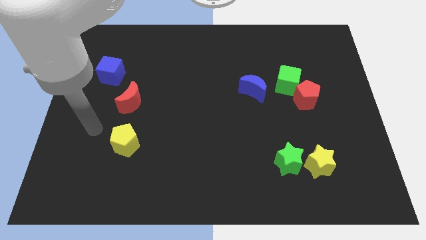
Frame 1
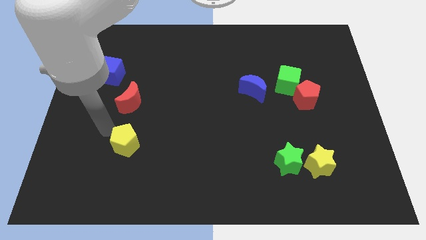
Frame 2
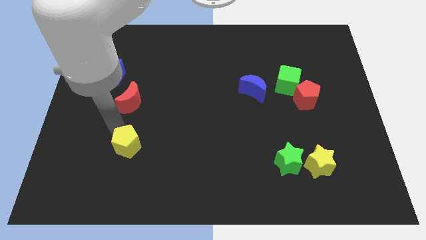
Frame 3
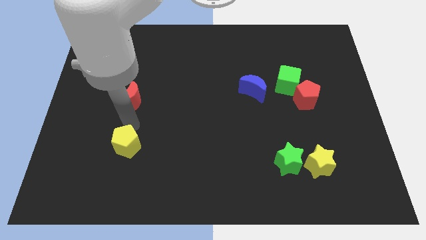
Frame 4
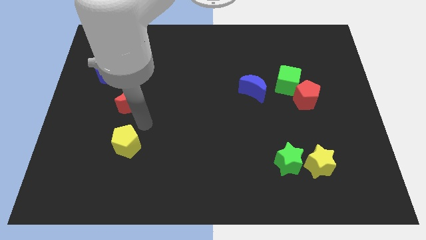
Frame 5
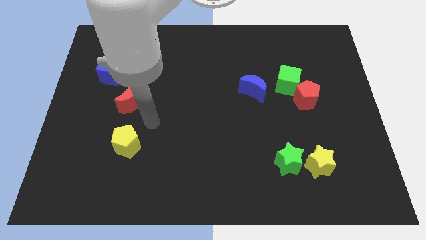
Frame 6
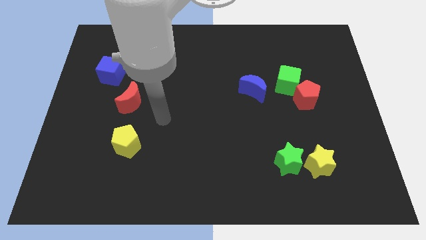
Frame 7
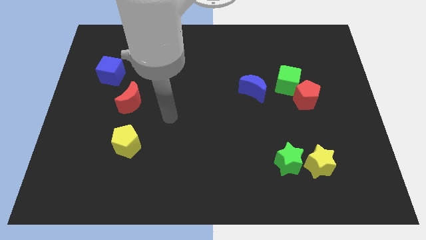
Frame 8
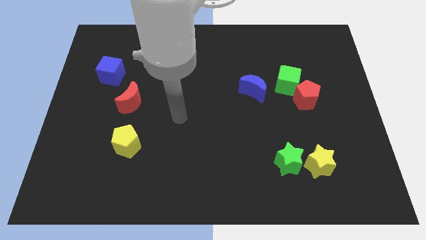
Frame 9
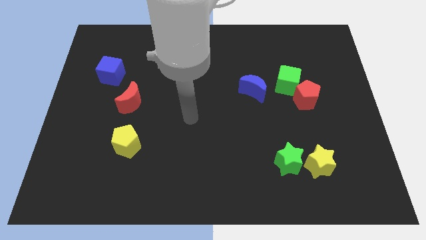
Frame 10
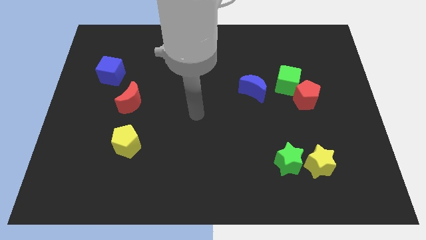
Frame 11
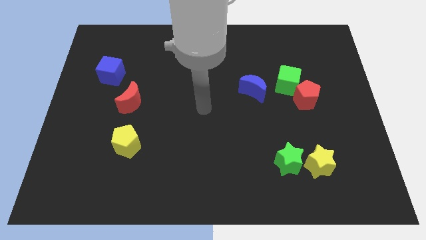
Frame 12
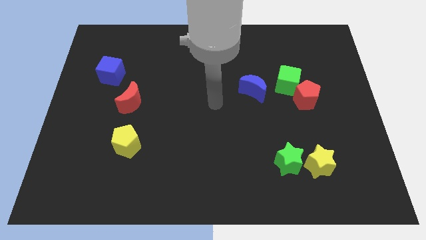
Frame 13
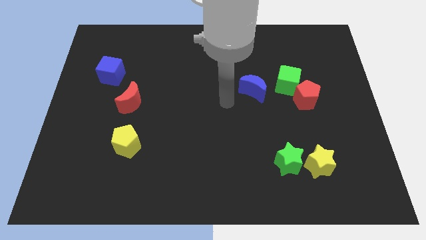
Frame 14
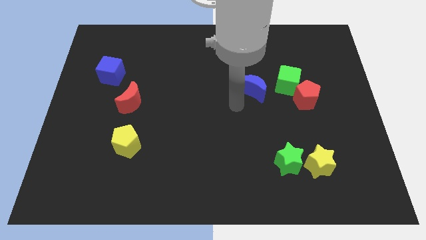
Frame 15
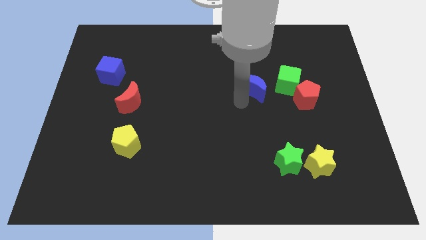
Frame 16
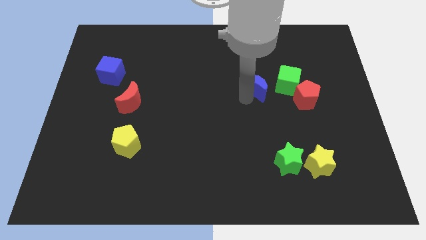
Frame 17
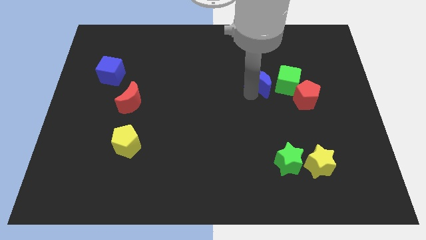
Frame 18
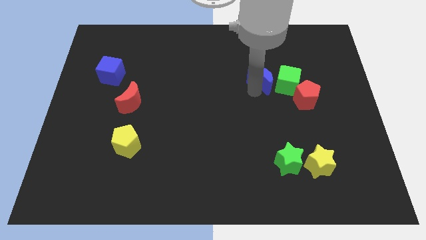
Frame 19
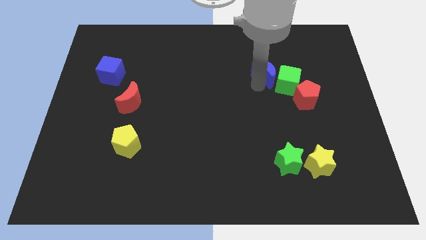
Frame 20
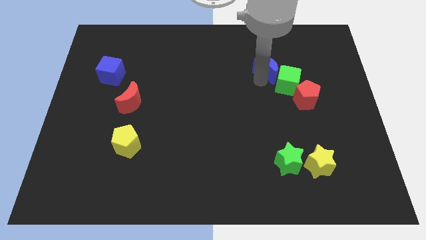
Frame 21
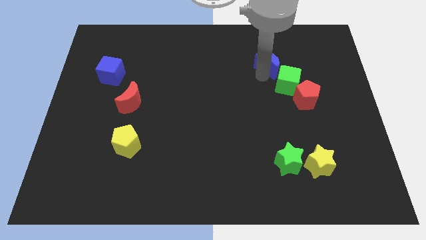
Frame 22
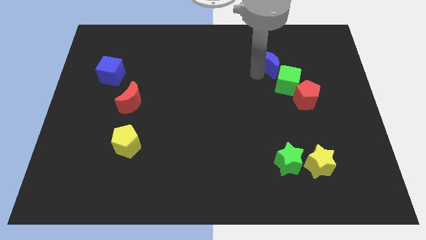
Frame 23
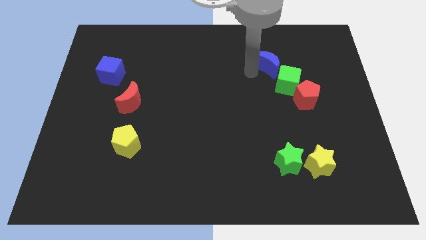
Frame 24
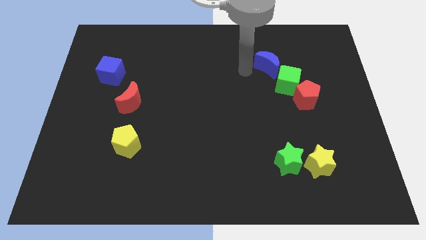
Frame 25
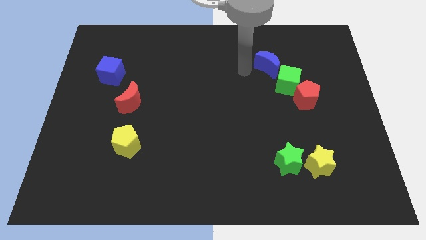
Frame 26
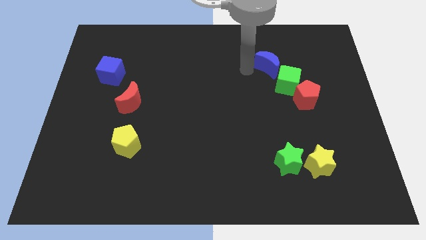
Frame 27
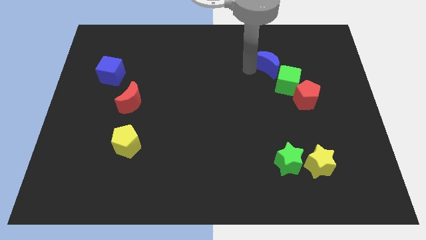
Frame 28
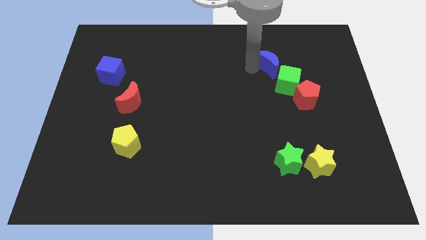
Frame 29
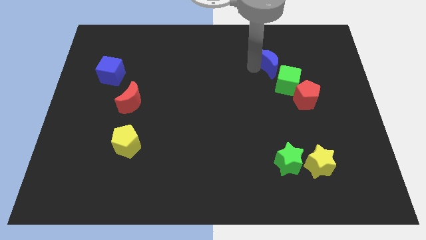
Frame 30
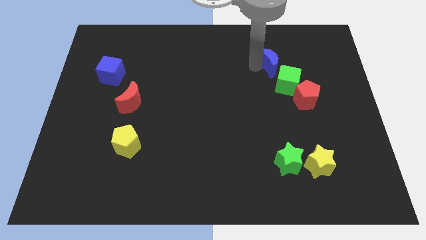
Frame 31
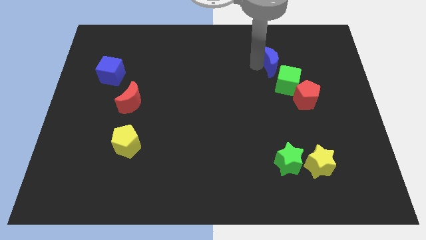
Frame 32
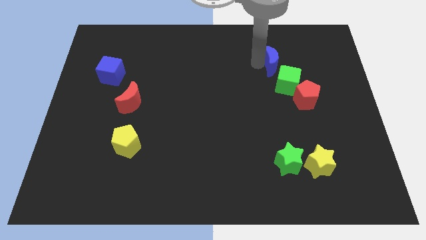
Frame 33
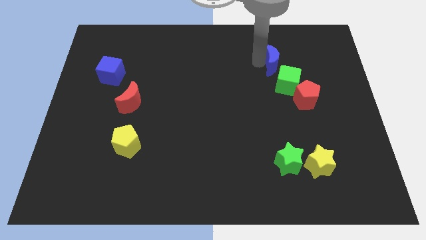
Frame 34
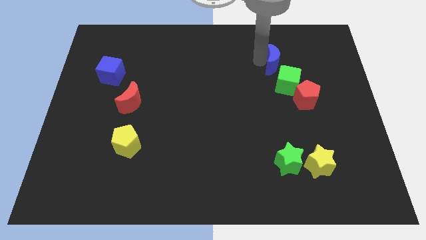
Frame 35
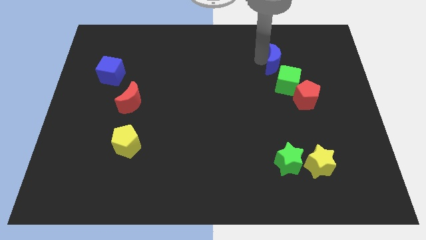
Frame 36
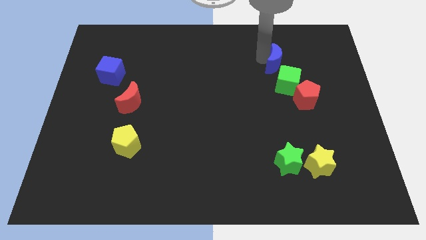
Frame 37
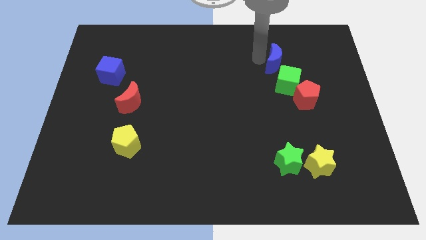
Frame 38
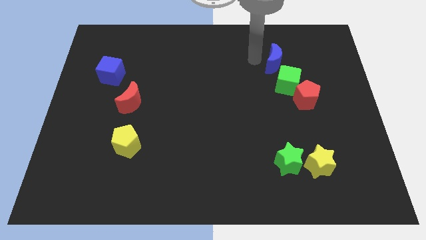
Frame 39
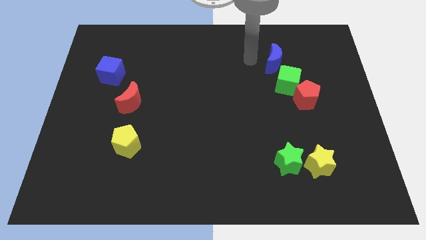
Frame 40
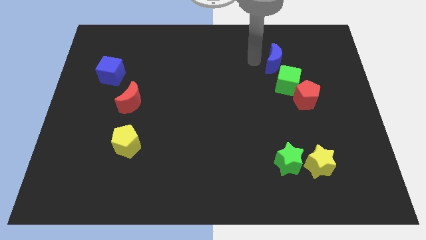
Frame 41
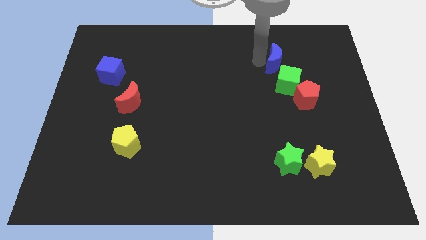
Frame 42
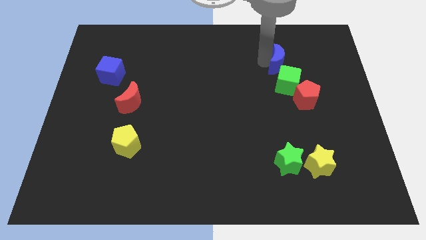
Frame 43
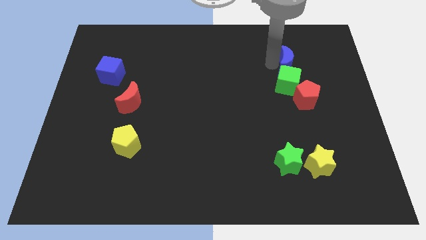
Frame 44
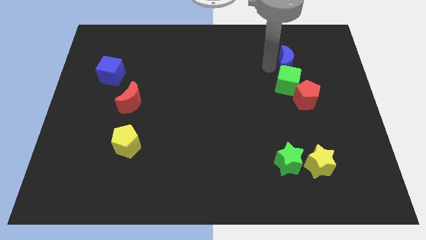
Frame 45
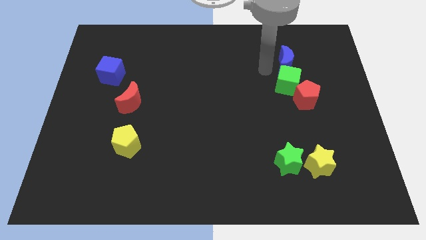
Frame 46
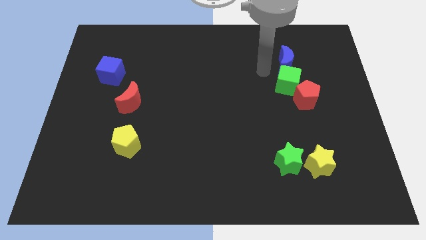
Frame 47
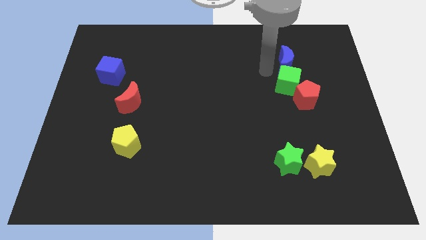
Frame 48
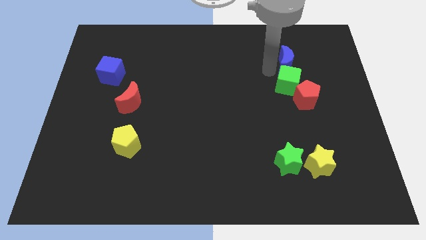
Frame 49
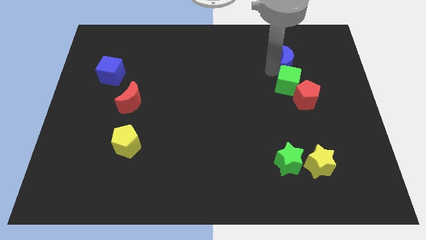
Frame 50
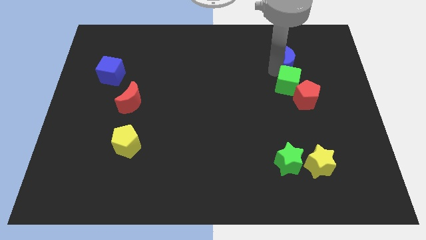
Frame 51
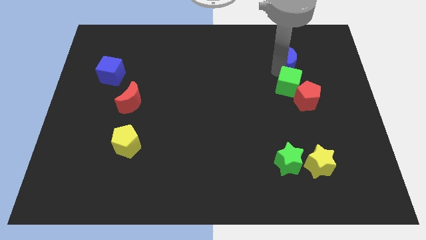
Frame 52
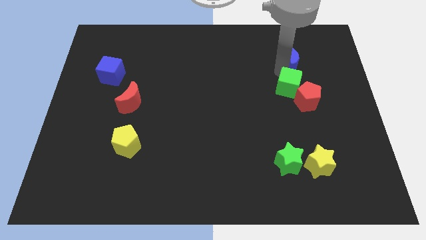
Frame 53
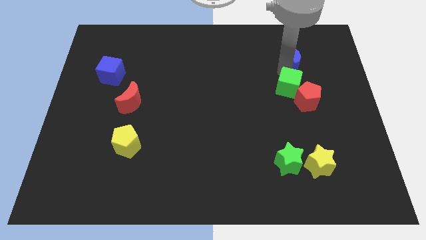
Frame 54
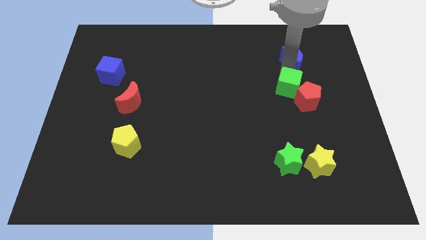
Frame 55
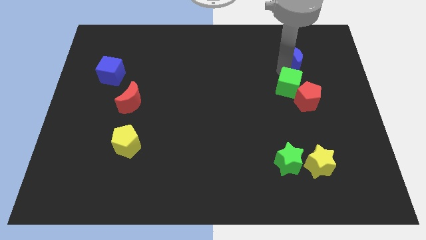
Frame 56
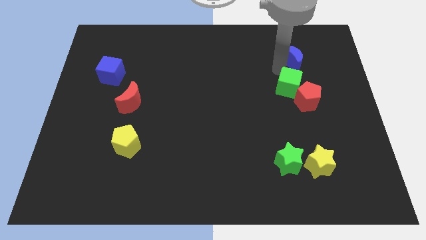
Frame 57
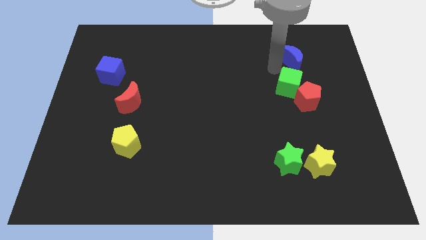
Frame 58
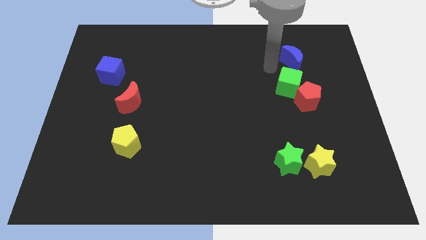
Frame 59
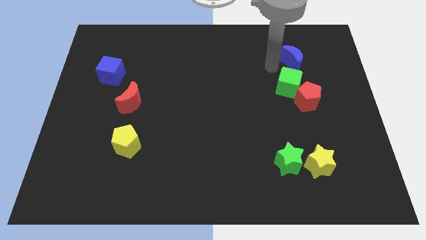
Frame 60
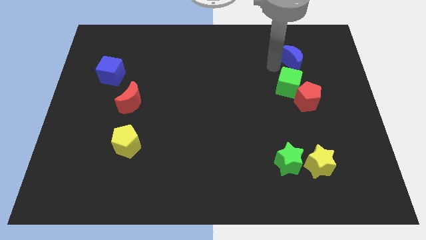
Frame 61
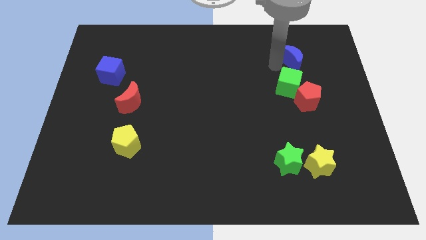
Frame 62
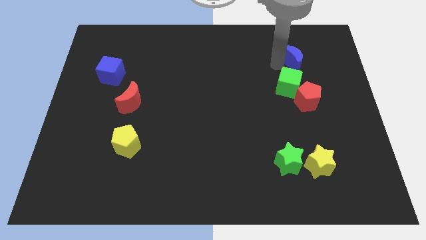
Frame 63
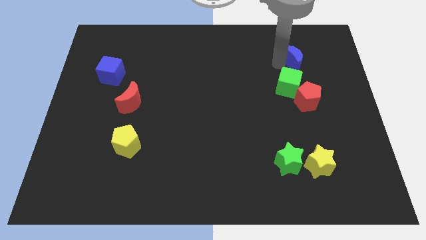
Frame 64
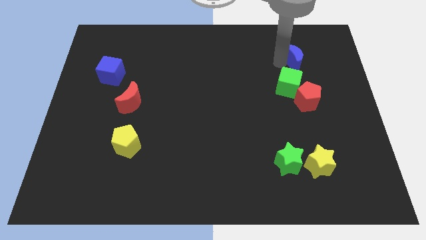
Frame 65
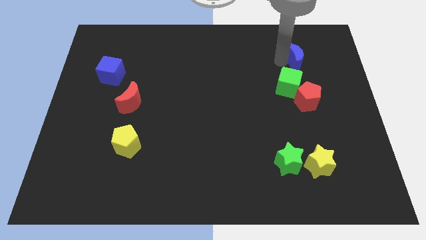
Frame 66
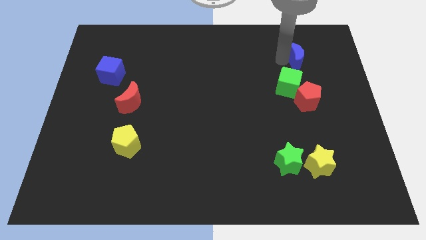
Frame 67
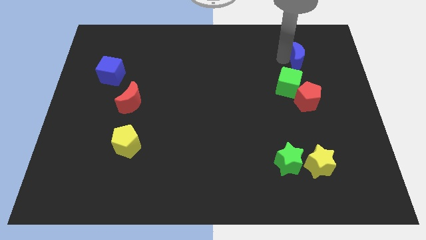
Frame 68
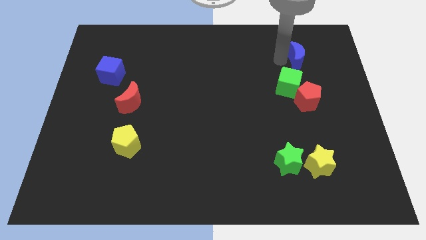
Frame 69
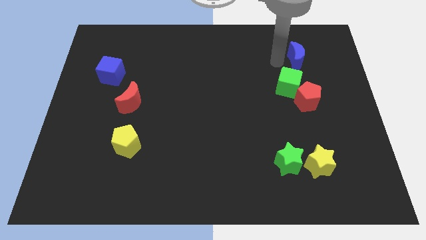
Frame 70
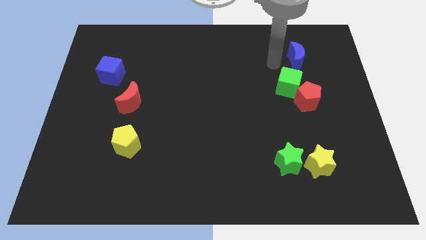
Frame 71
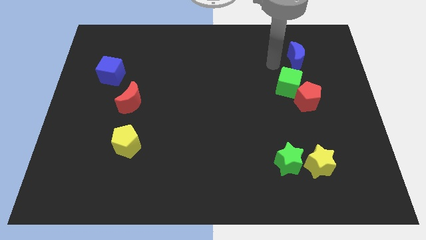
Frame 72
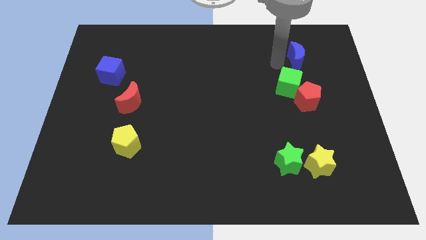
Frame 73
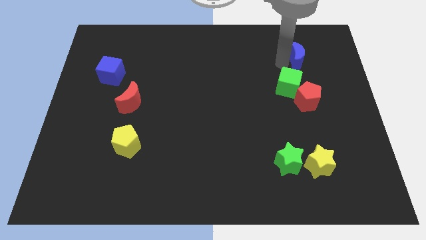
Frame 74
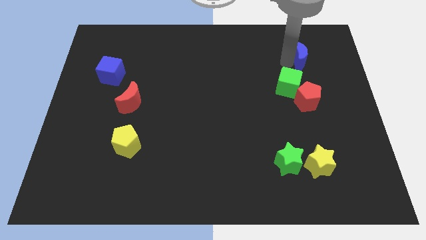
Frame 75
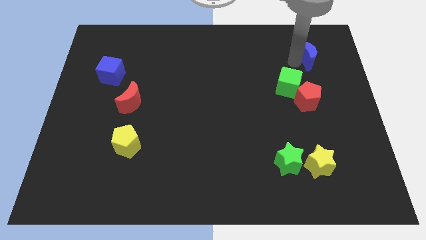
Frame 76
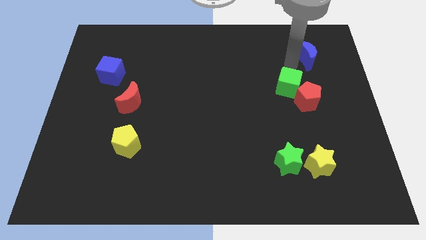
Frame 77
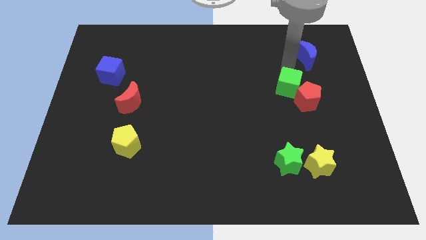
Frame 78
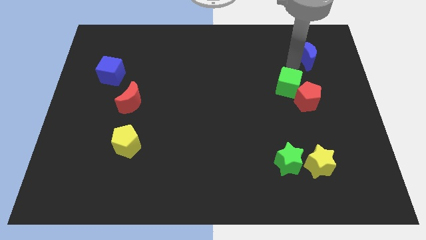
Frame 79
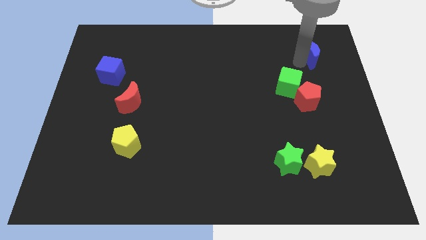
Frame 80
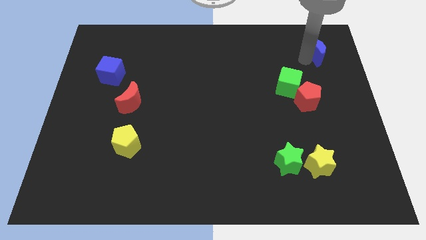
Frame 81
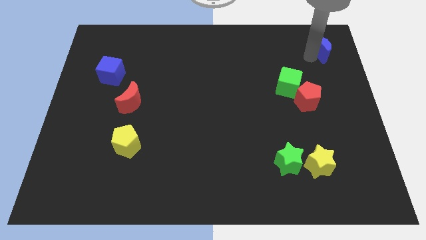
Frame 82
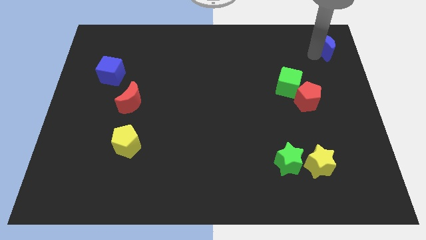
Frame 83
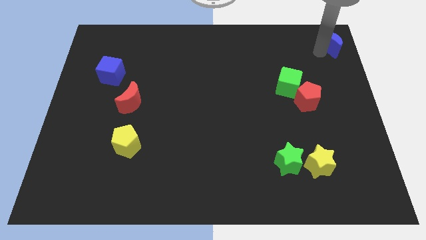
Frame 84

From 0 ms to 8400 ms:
push the blue moon to the top right of the board
